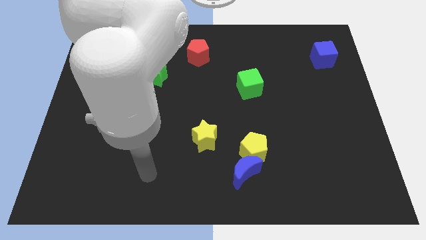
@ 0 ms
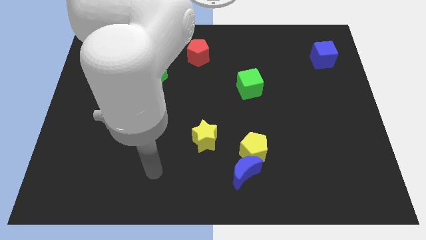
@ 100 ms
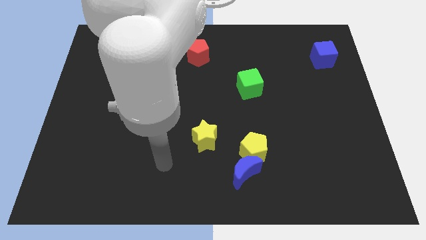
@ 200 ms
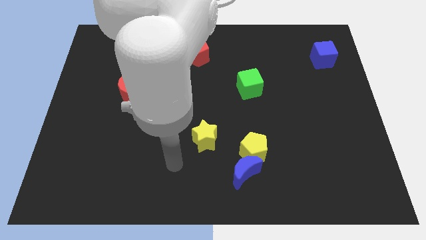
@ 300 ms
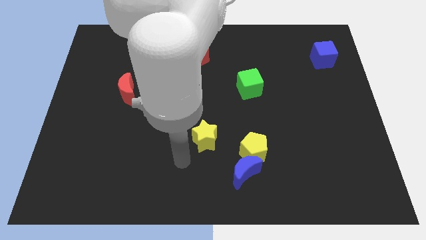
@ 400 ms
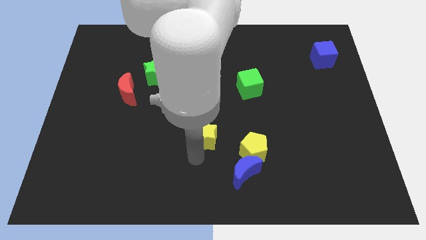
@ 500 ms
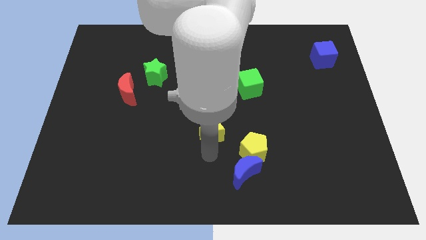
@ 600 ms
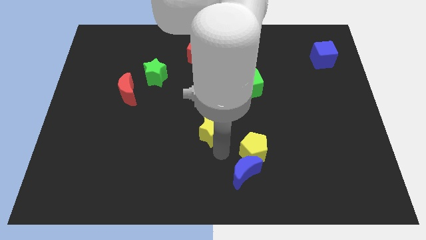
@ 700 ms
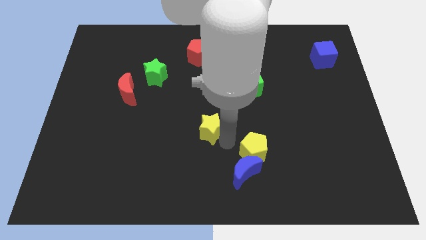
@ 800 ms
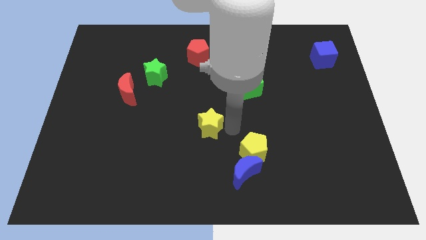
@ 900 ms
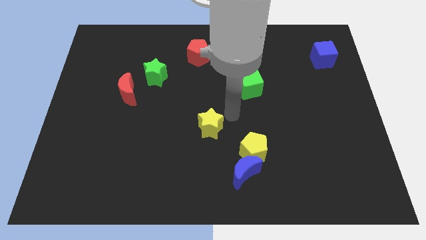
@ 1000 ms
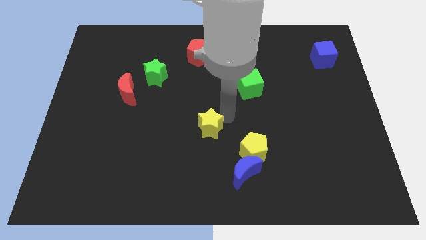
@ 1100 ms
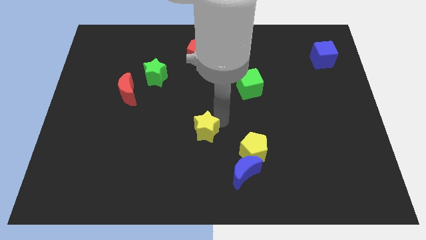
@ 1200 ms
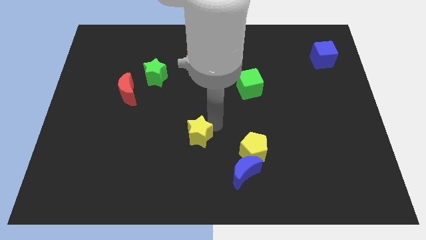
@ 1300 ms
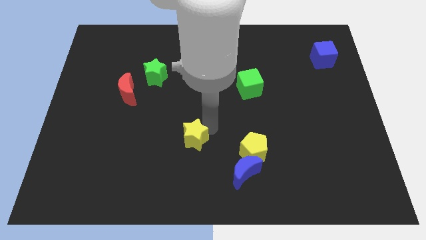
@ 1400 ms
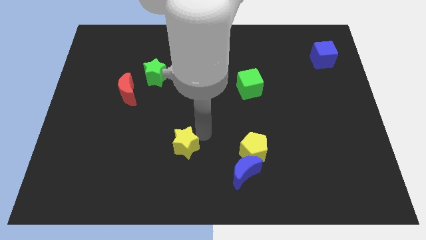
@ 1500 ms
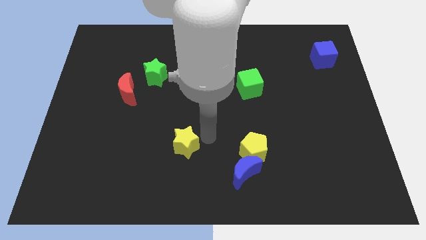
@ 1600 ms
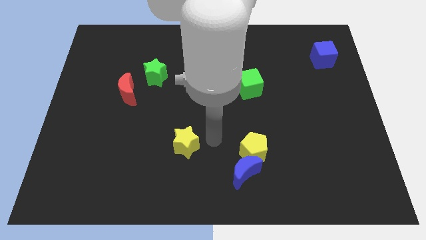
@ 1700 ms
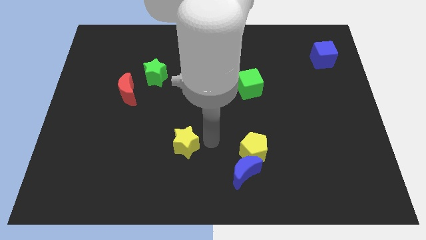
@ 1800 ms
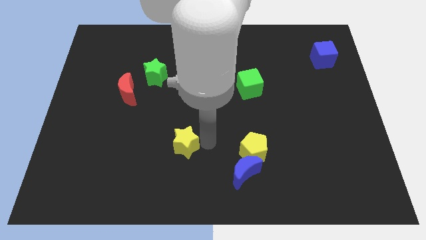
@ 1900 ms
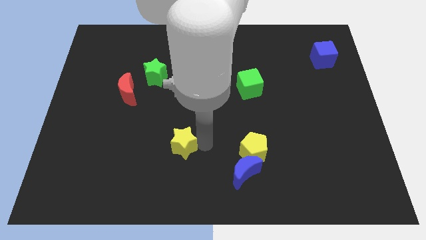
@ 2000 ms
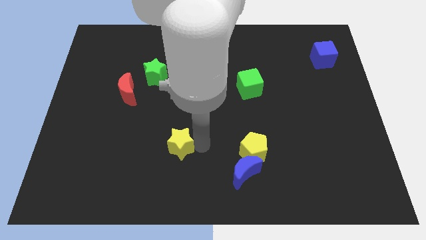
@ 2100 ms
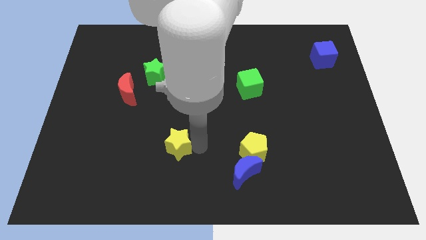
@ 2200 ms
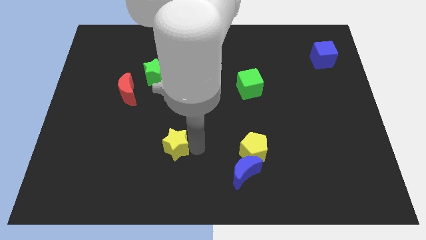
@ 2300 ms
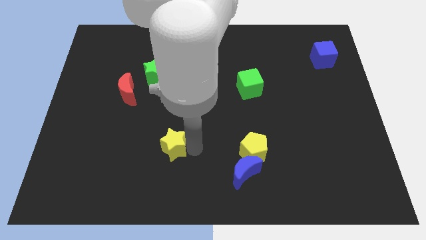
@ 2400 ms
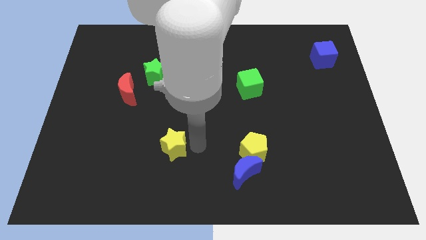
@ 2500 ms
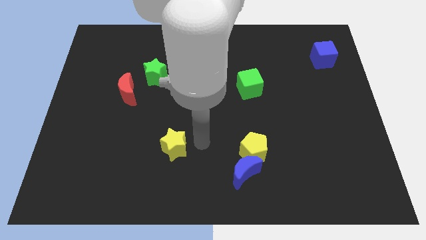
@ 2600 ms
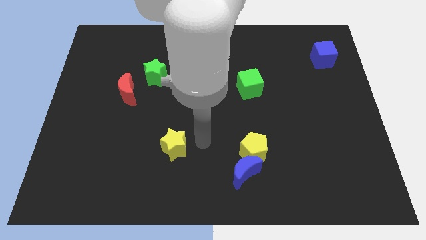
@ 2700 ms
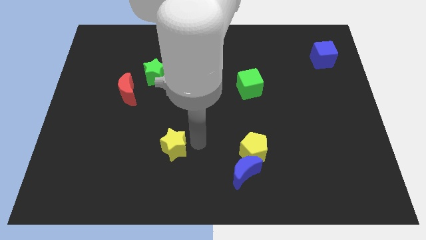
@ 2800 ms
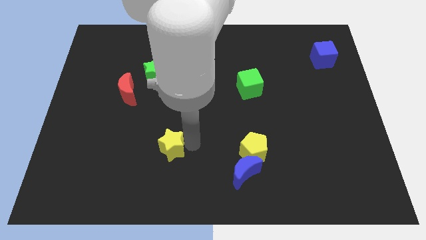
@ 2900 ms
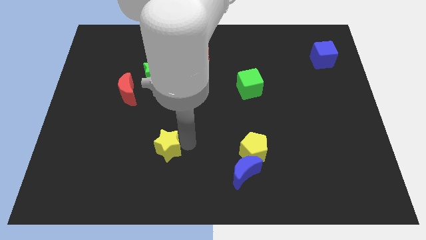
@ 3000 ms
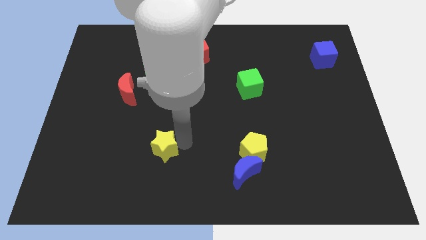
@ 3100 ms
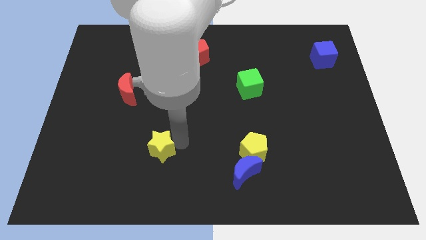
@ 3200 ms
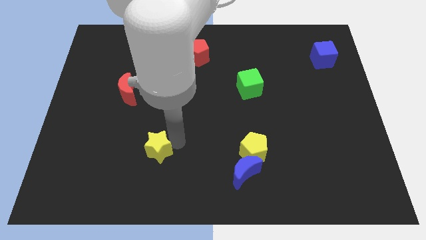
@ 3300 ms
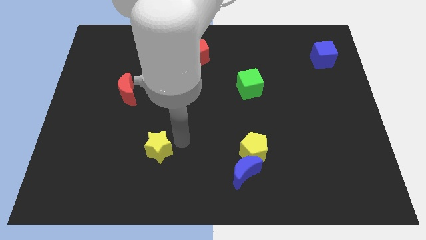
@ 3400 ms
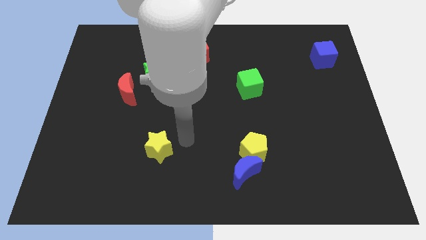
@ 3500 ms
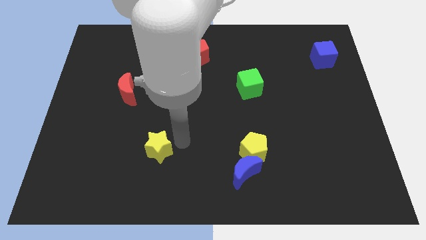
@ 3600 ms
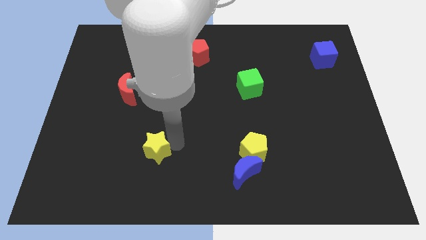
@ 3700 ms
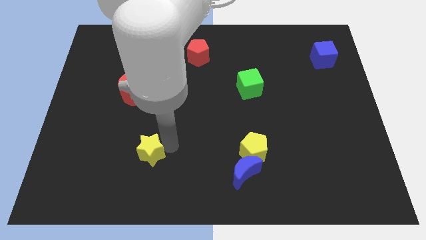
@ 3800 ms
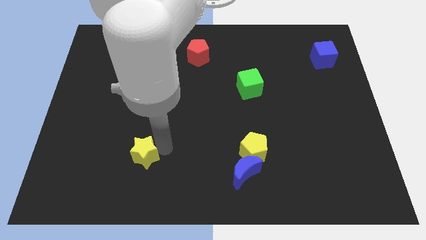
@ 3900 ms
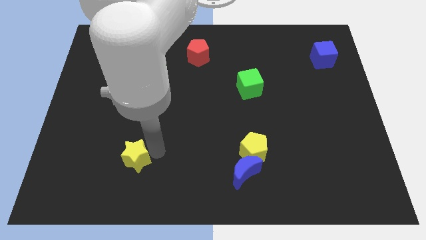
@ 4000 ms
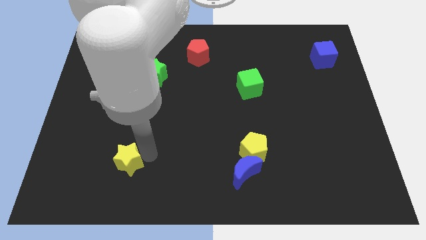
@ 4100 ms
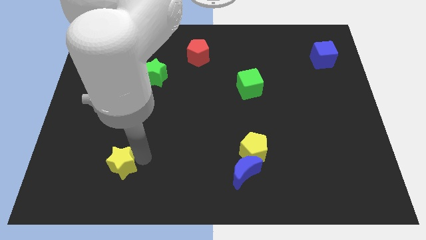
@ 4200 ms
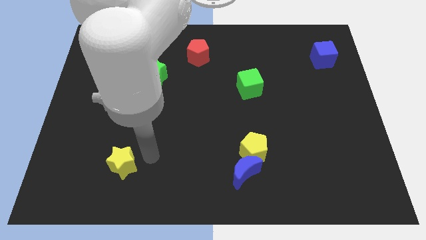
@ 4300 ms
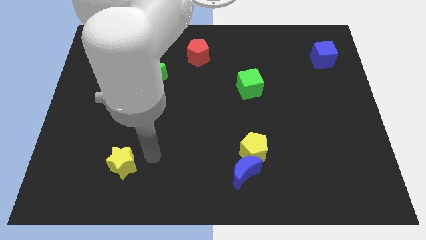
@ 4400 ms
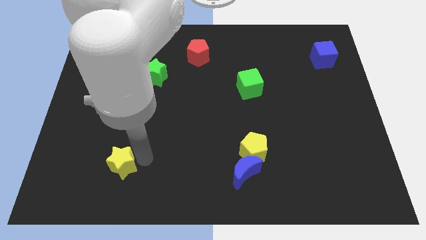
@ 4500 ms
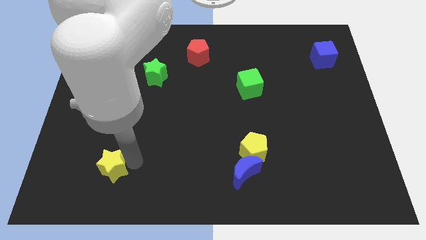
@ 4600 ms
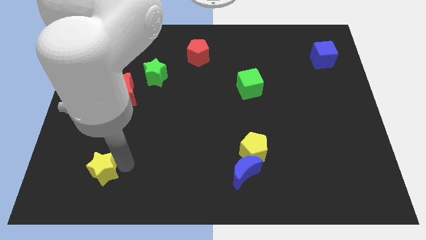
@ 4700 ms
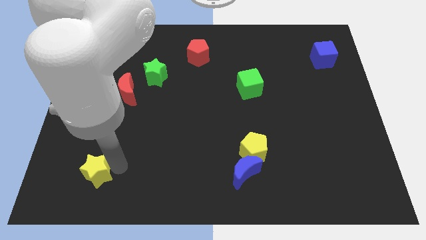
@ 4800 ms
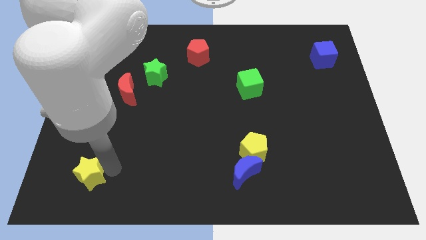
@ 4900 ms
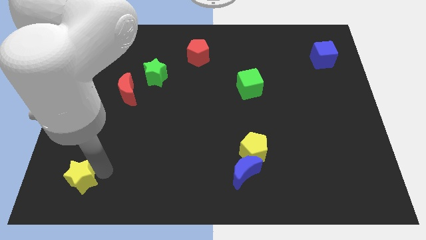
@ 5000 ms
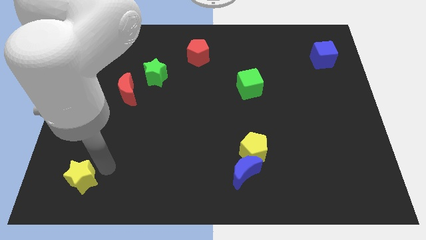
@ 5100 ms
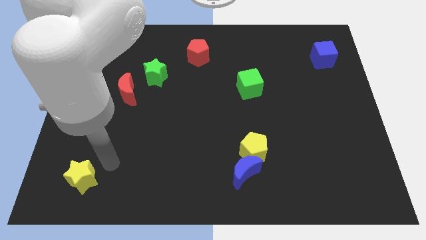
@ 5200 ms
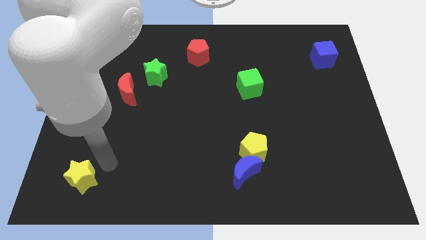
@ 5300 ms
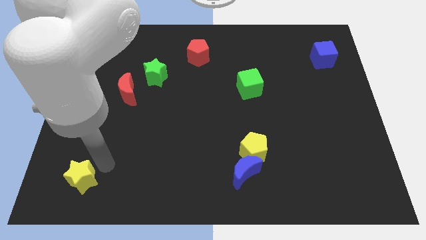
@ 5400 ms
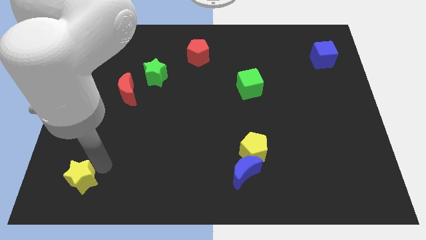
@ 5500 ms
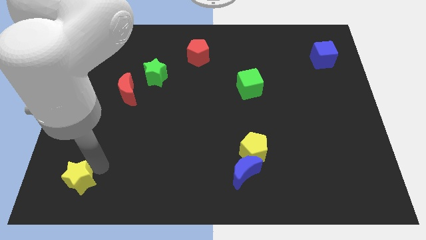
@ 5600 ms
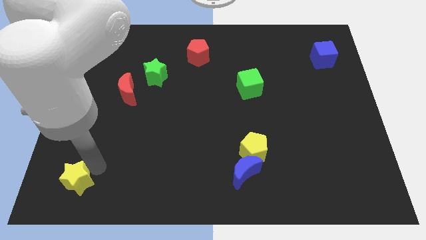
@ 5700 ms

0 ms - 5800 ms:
push the yellow star to the bottom left
